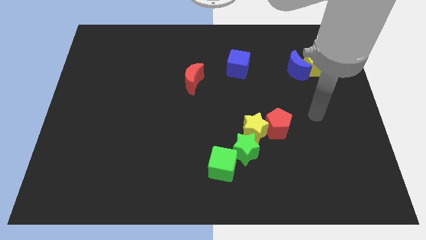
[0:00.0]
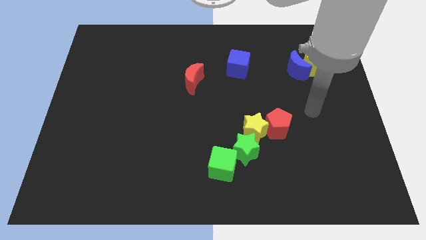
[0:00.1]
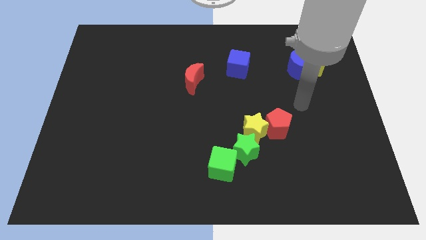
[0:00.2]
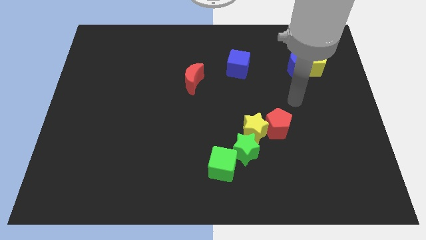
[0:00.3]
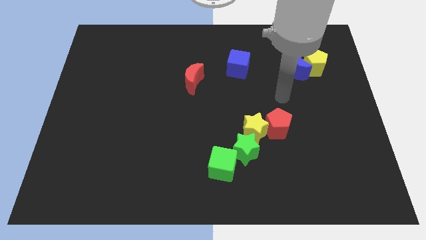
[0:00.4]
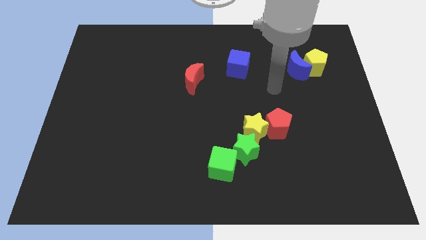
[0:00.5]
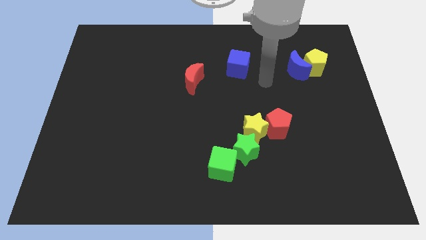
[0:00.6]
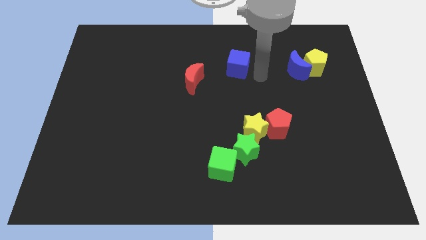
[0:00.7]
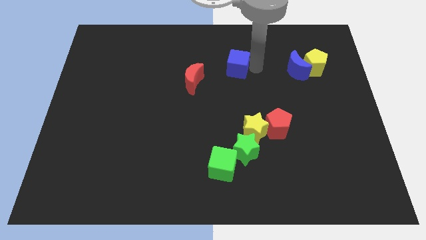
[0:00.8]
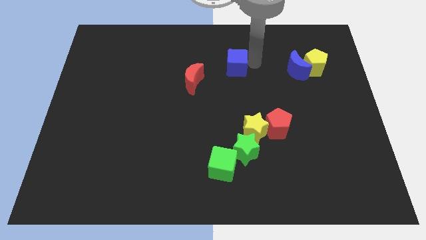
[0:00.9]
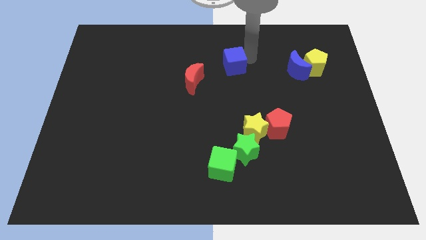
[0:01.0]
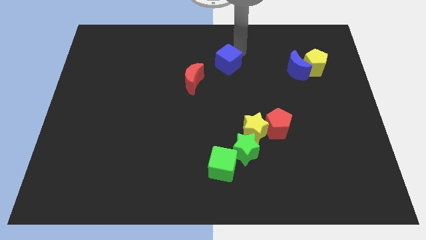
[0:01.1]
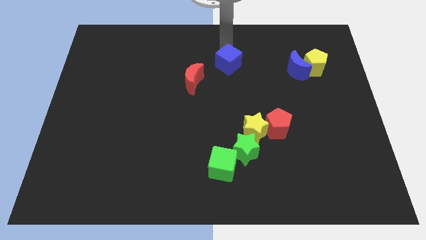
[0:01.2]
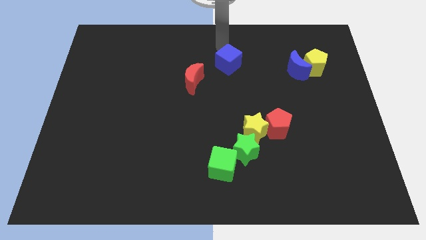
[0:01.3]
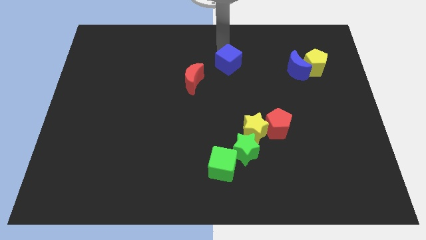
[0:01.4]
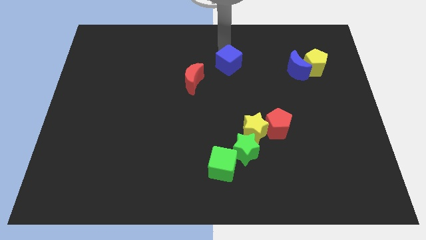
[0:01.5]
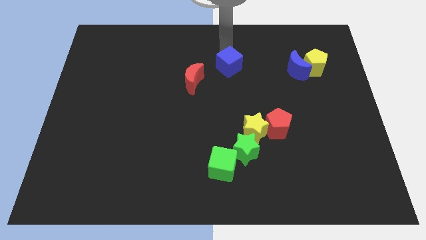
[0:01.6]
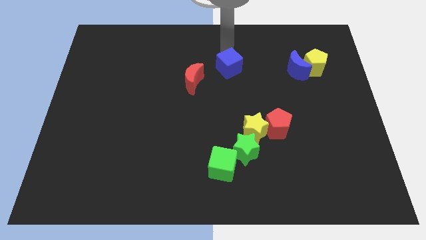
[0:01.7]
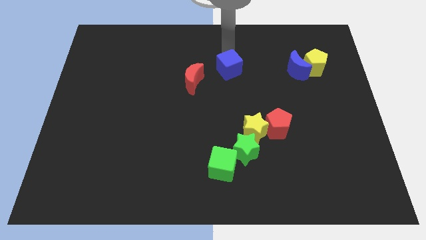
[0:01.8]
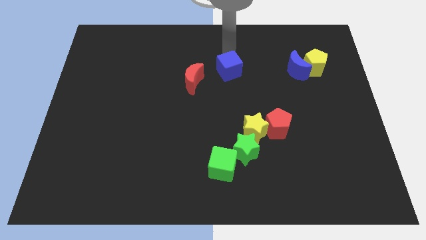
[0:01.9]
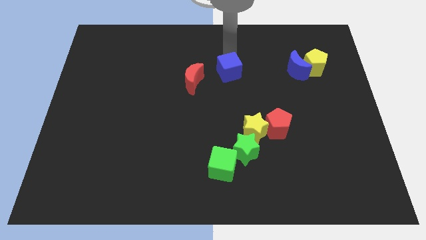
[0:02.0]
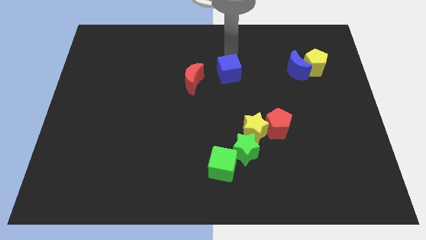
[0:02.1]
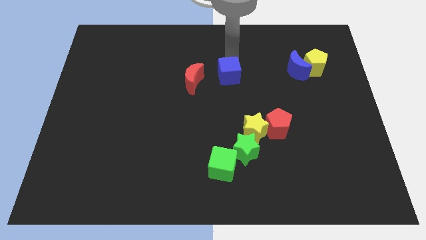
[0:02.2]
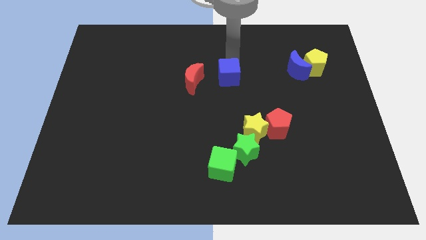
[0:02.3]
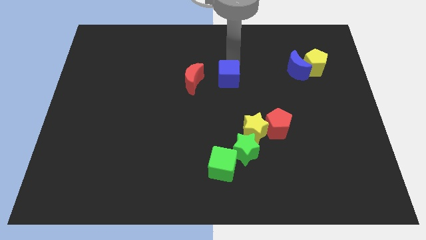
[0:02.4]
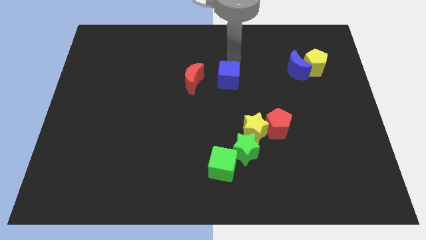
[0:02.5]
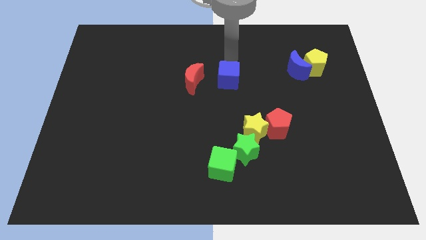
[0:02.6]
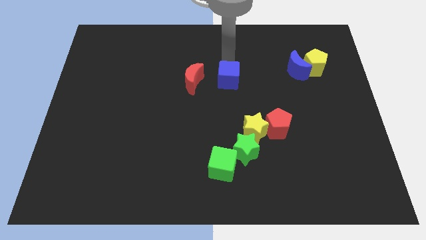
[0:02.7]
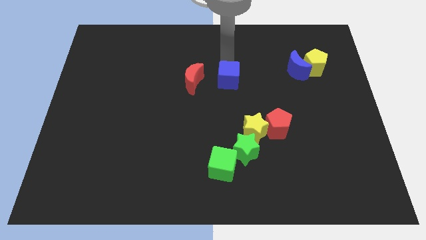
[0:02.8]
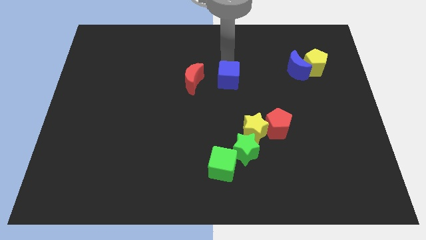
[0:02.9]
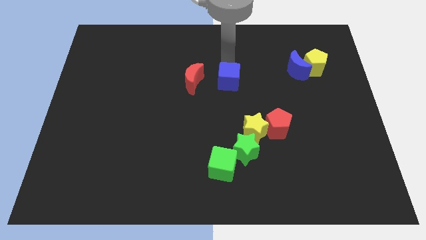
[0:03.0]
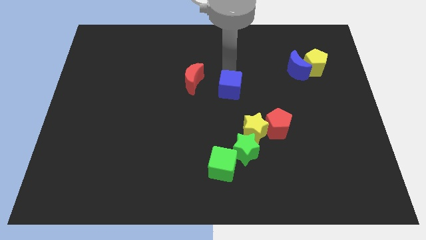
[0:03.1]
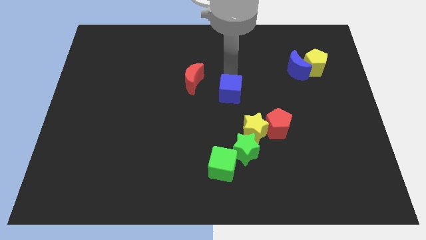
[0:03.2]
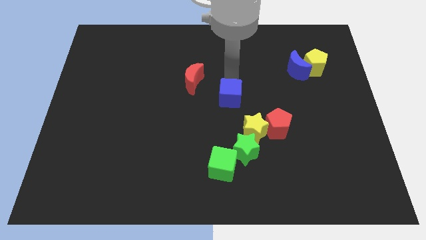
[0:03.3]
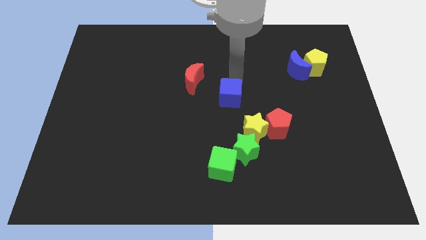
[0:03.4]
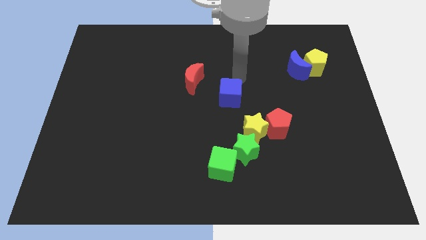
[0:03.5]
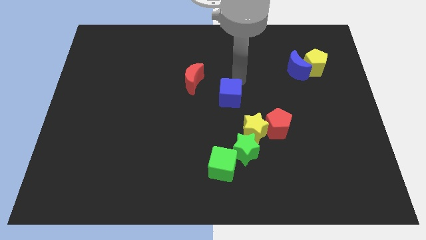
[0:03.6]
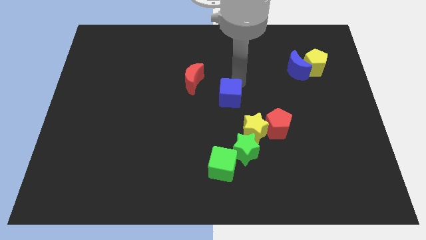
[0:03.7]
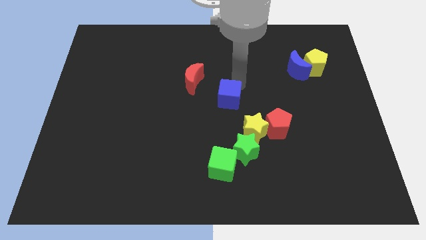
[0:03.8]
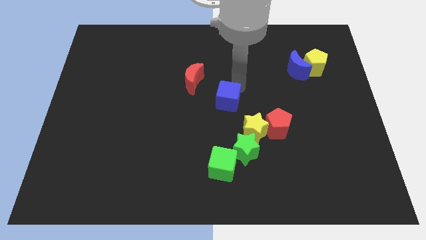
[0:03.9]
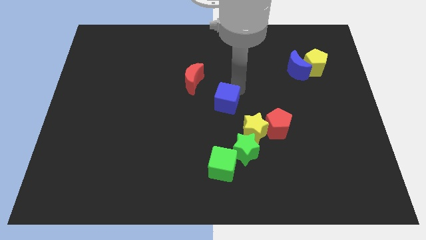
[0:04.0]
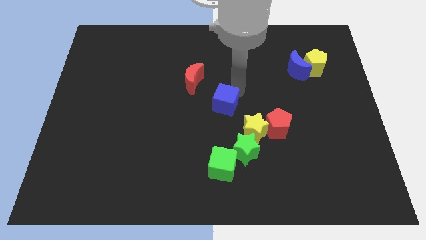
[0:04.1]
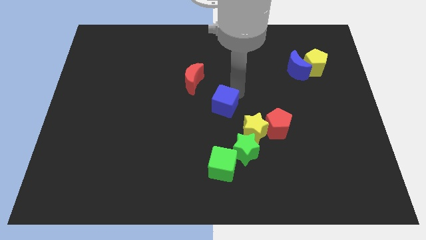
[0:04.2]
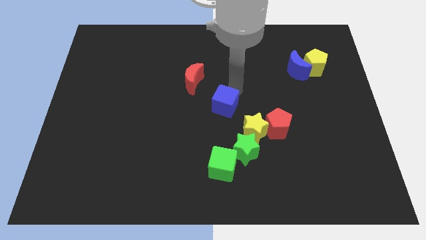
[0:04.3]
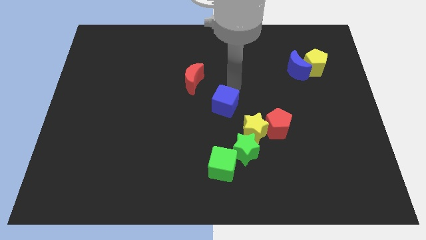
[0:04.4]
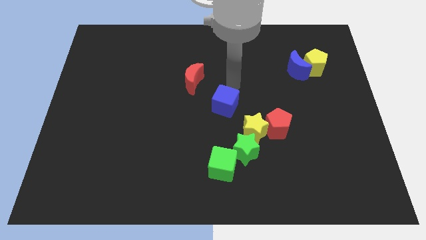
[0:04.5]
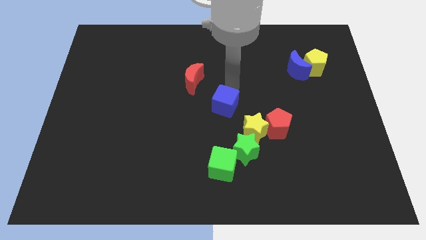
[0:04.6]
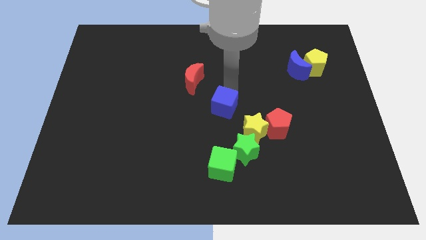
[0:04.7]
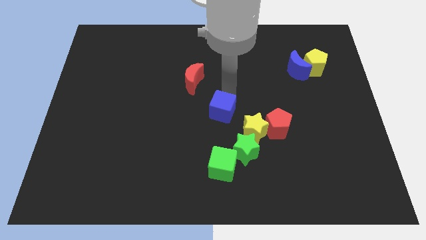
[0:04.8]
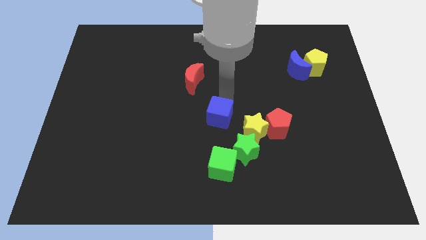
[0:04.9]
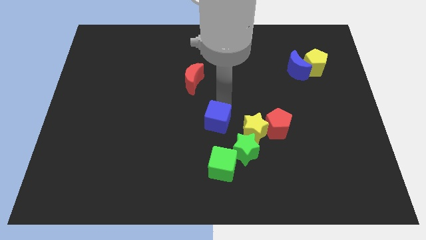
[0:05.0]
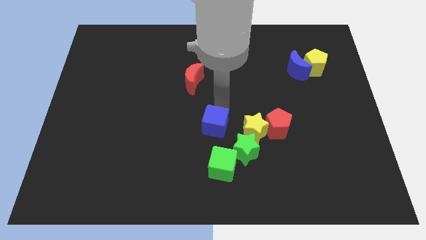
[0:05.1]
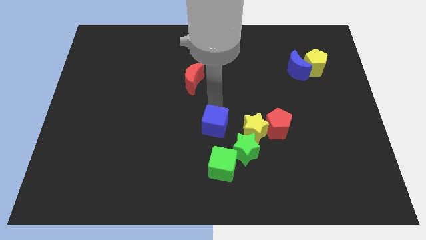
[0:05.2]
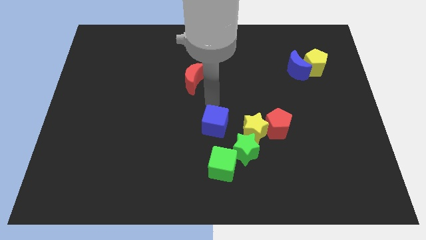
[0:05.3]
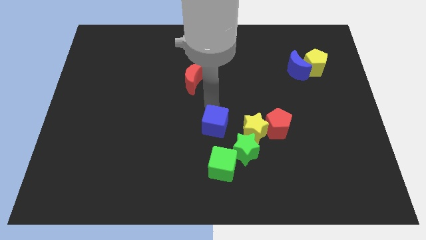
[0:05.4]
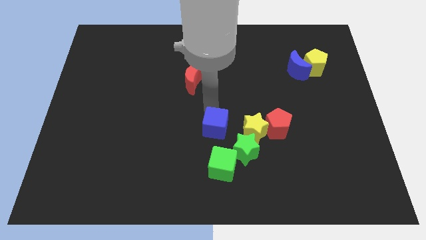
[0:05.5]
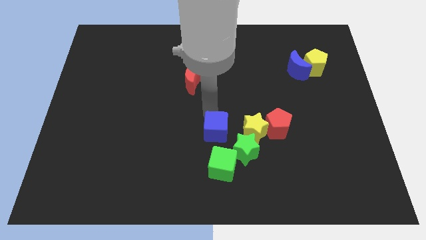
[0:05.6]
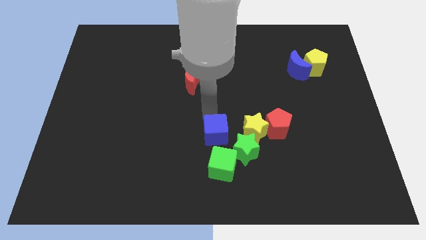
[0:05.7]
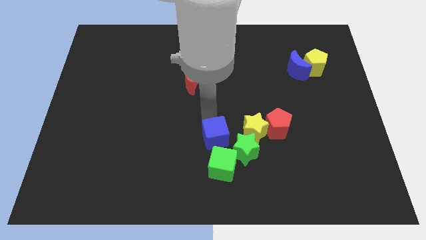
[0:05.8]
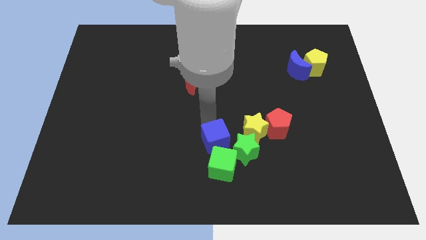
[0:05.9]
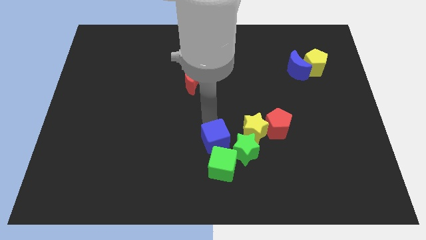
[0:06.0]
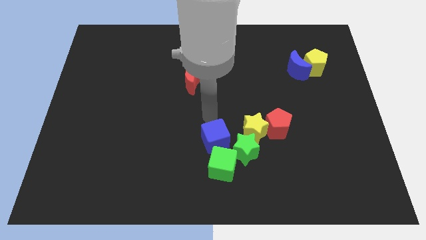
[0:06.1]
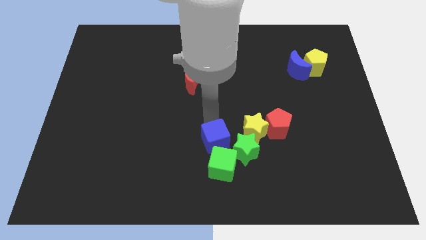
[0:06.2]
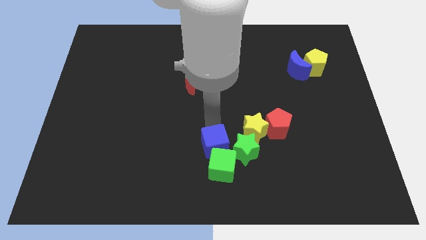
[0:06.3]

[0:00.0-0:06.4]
put the blue cube towards the green cube

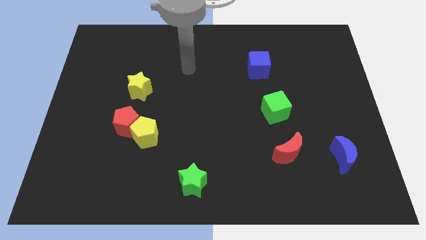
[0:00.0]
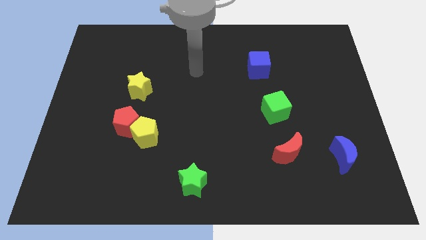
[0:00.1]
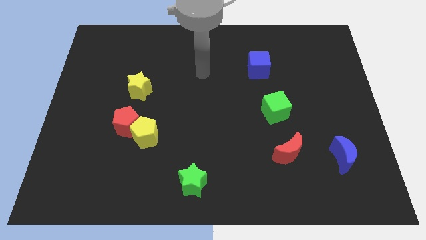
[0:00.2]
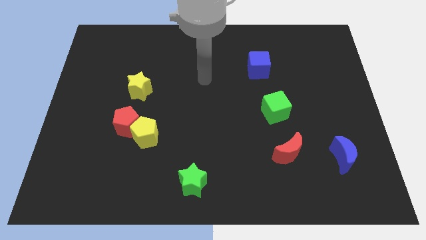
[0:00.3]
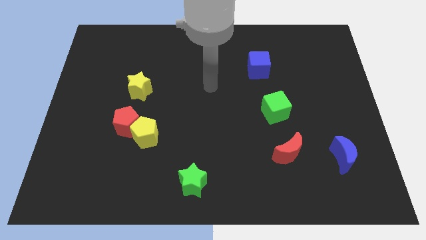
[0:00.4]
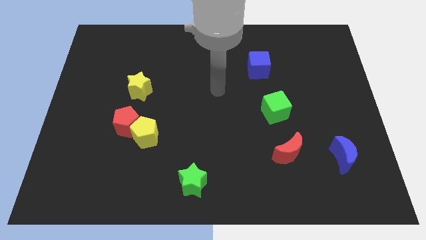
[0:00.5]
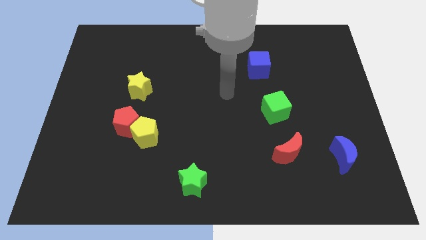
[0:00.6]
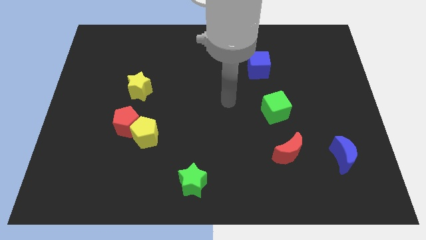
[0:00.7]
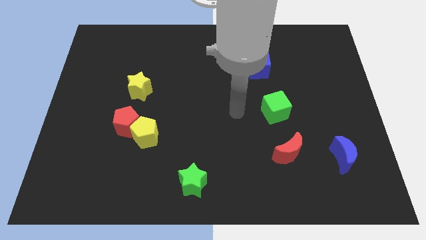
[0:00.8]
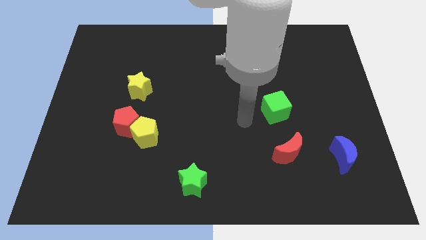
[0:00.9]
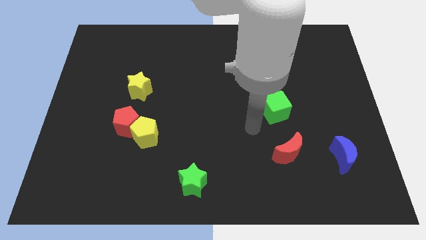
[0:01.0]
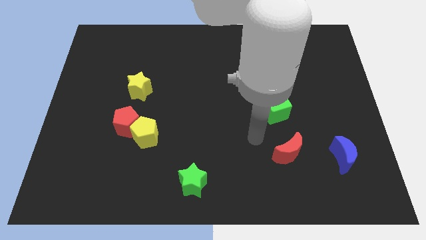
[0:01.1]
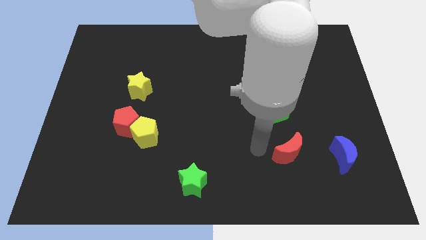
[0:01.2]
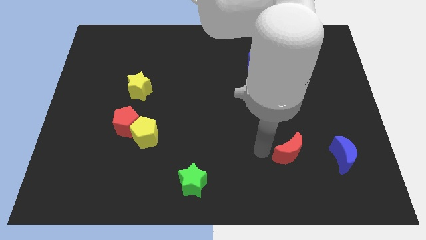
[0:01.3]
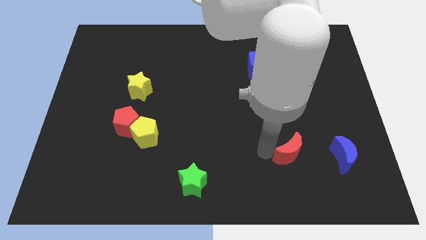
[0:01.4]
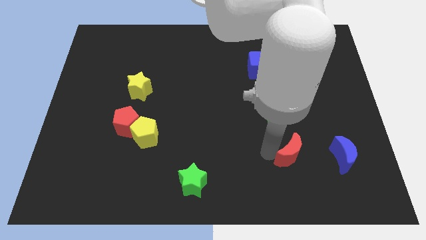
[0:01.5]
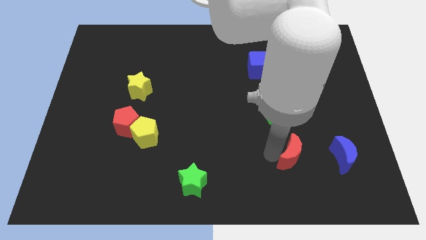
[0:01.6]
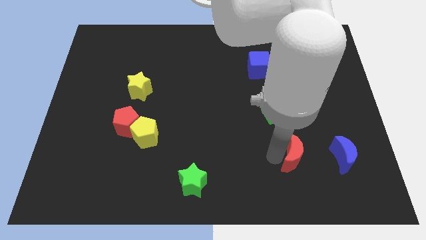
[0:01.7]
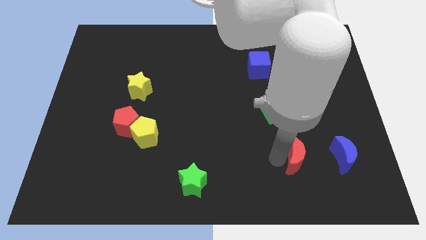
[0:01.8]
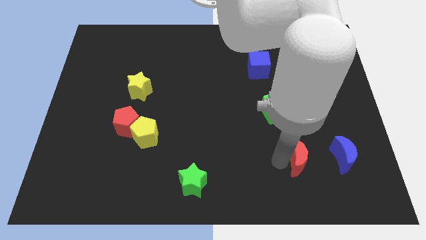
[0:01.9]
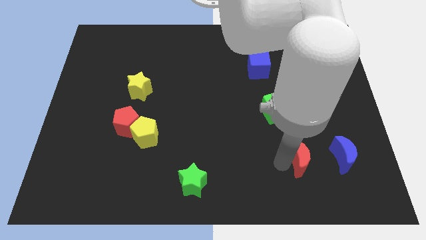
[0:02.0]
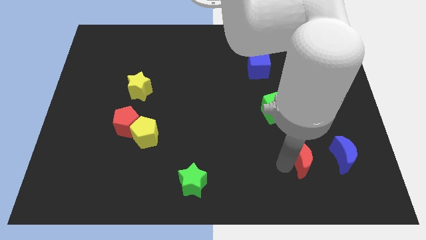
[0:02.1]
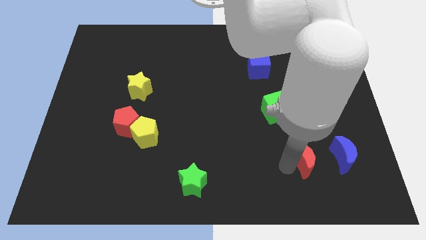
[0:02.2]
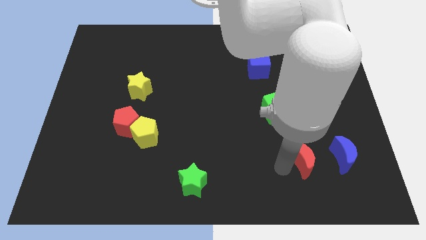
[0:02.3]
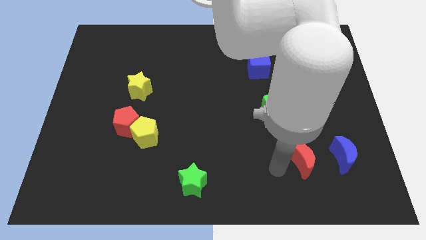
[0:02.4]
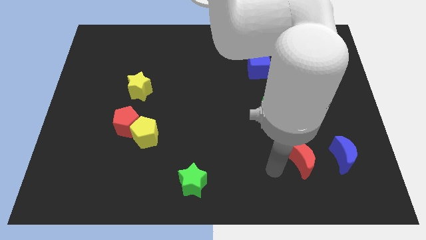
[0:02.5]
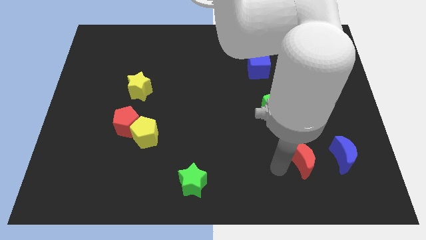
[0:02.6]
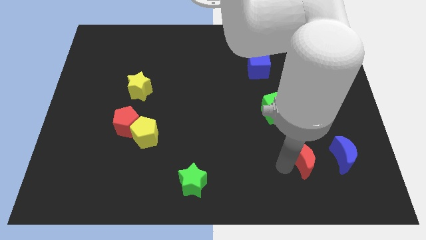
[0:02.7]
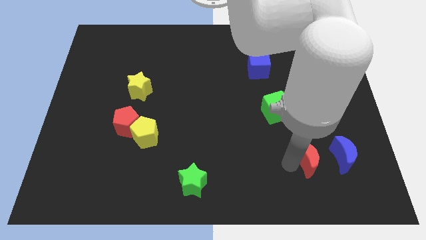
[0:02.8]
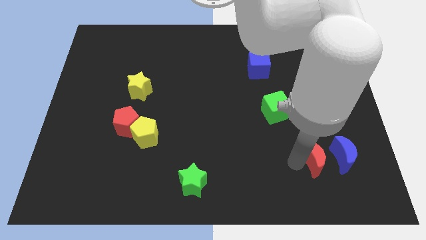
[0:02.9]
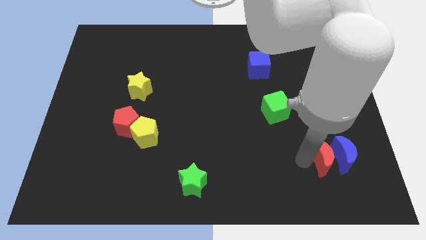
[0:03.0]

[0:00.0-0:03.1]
put the red moon next to the blue moon
